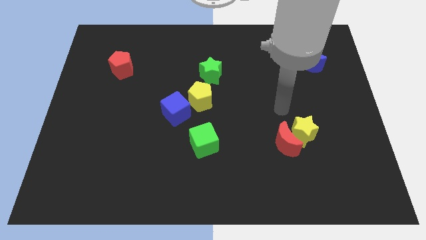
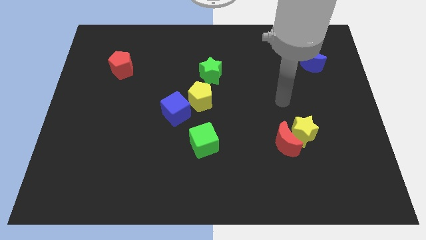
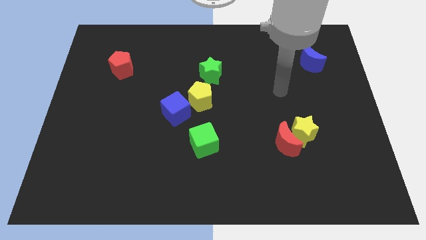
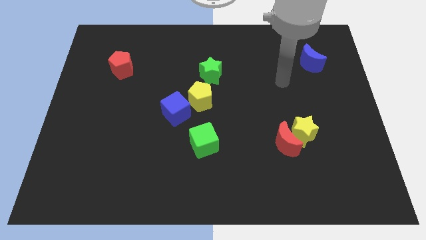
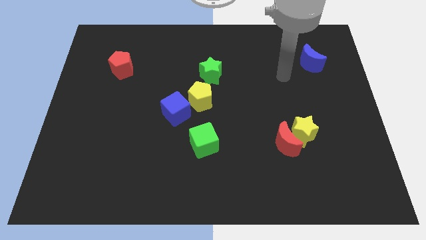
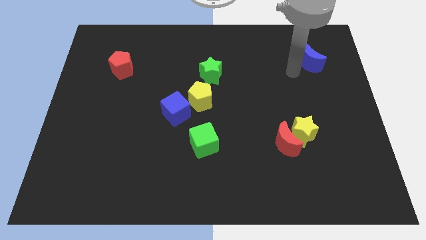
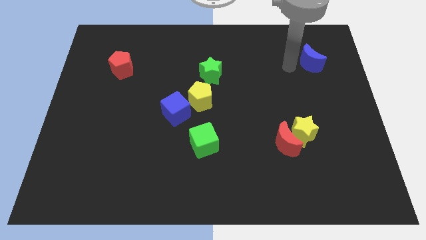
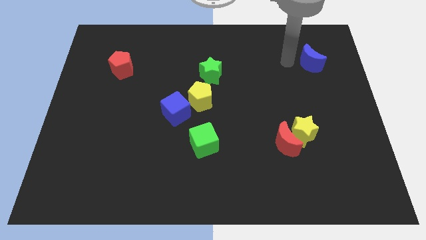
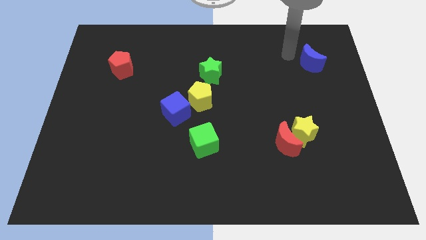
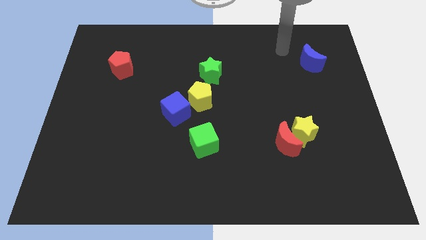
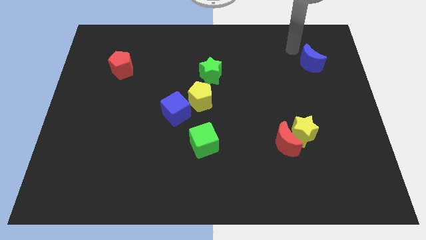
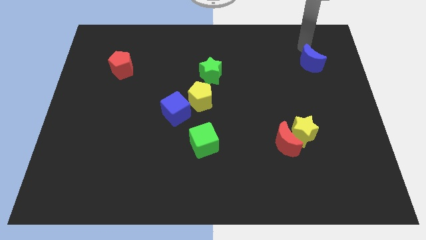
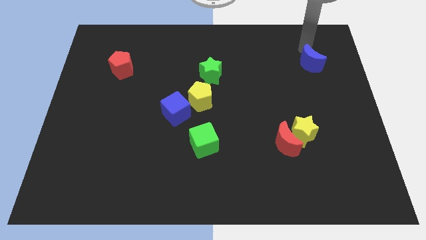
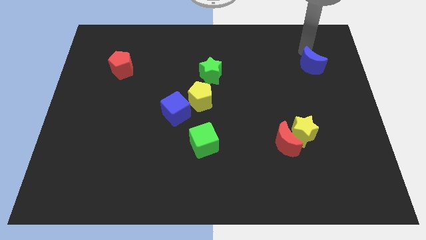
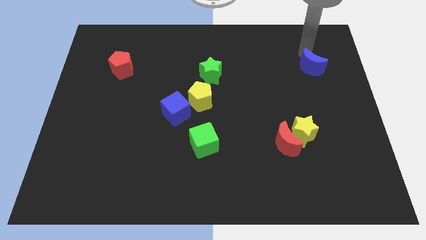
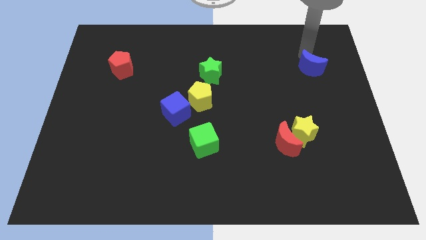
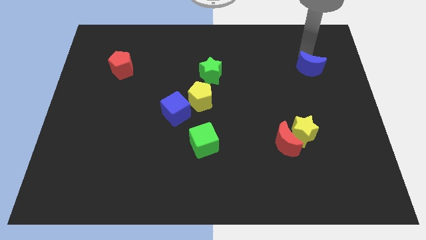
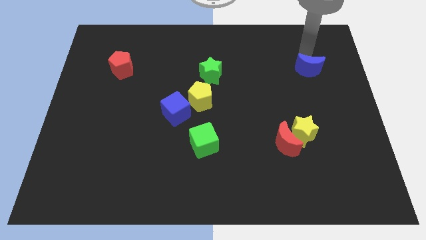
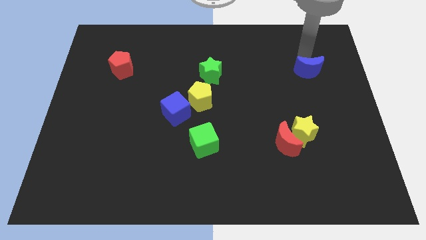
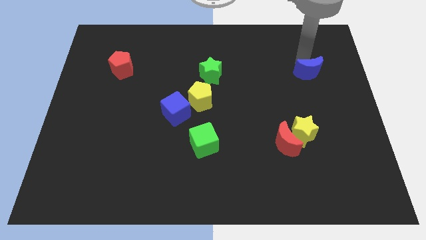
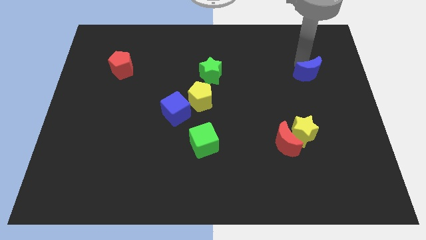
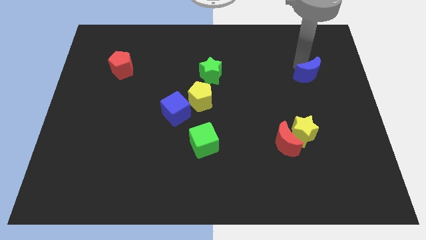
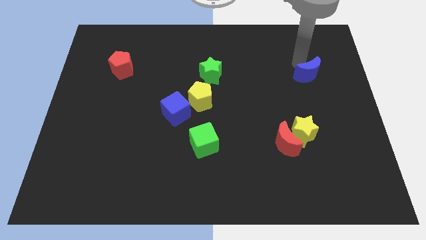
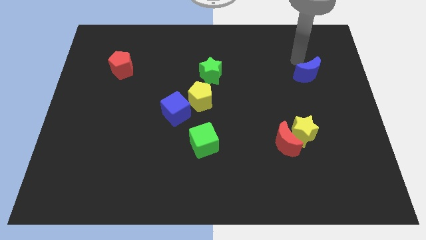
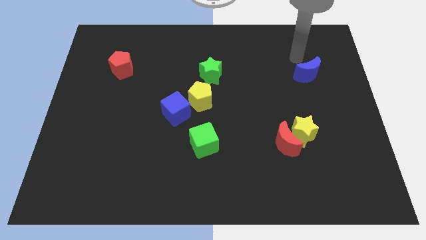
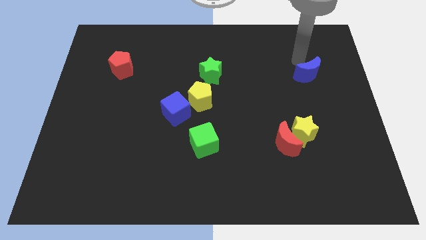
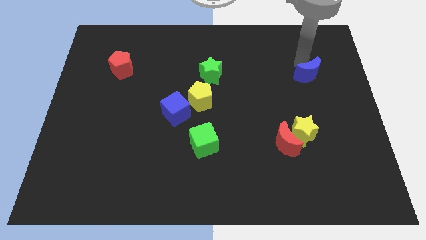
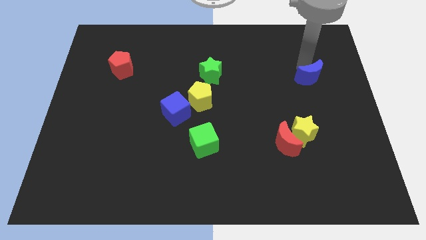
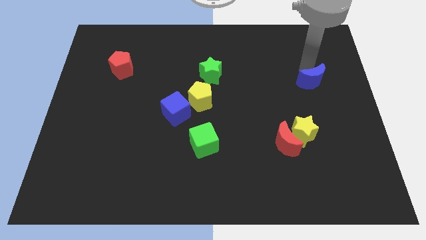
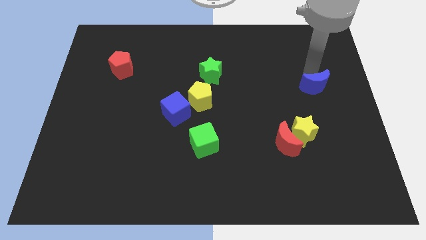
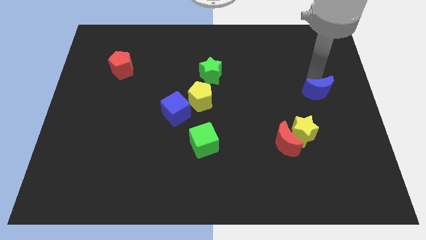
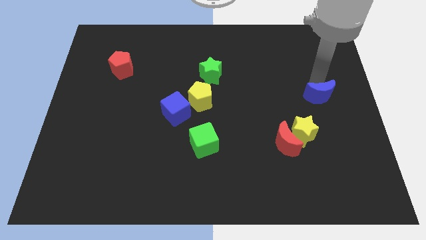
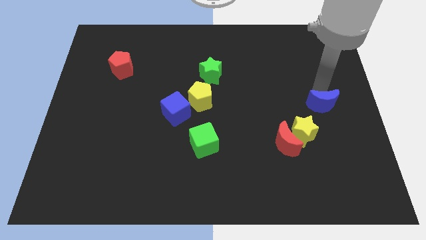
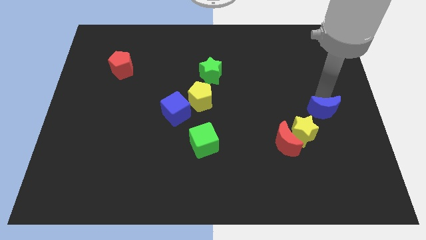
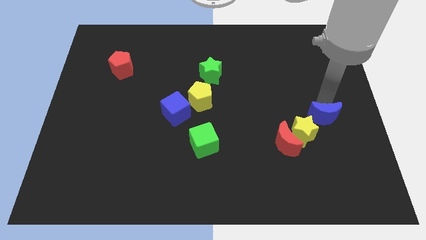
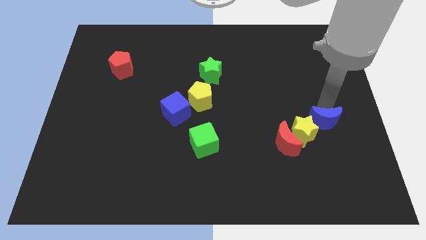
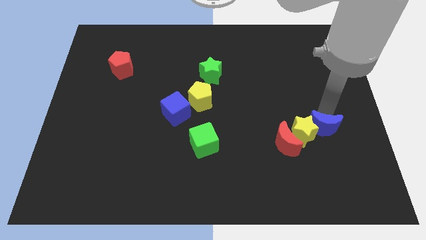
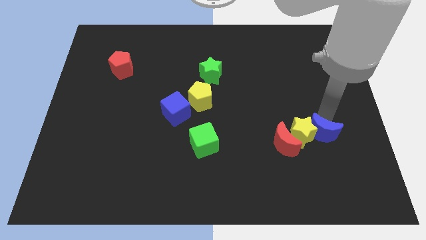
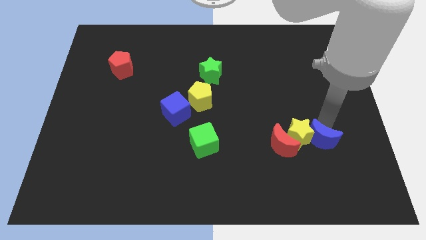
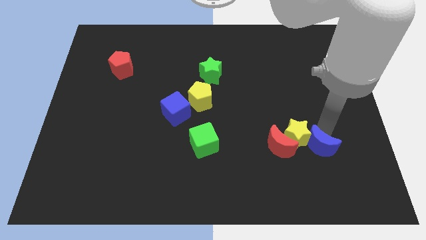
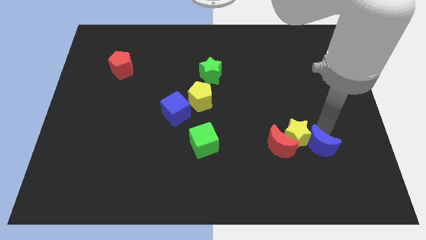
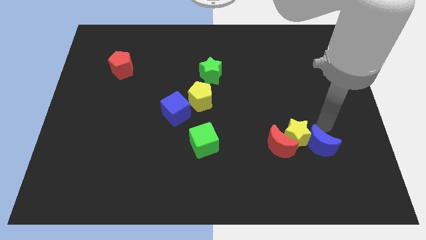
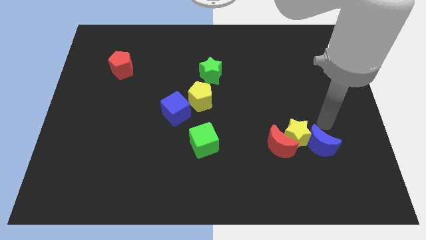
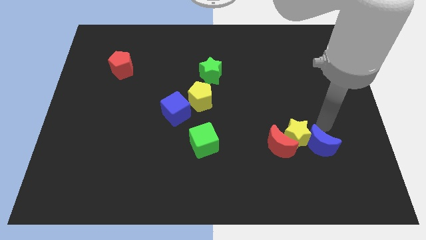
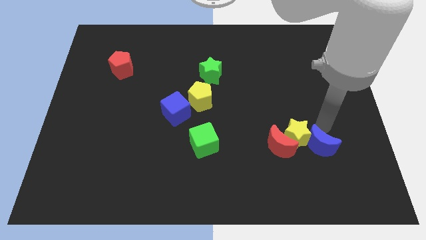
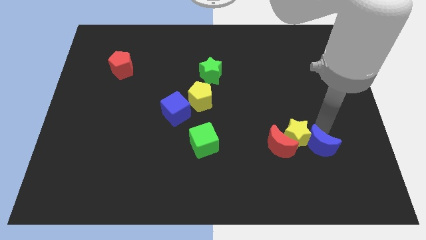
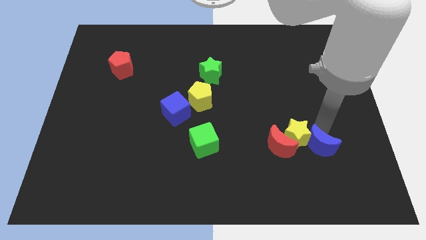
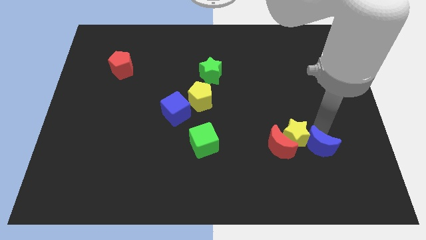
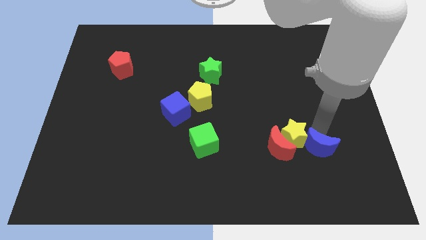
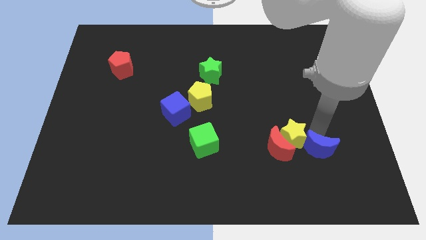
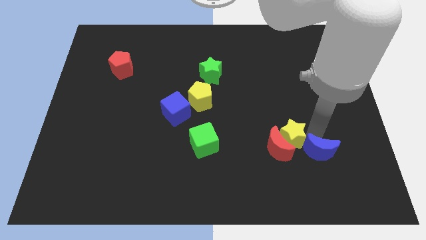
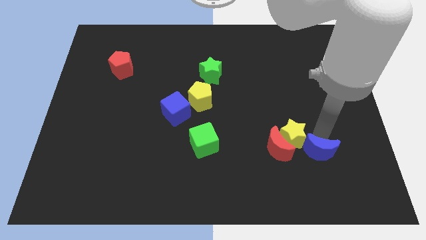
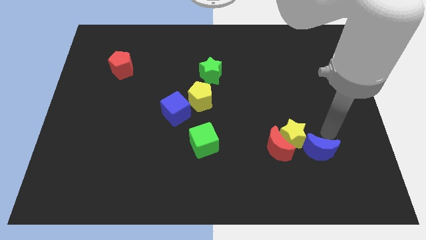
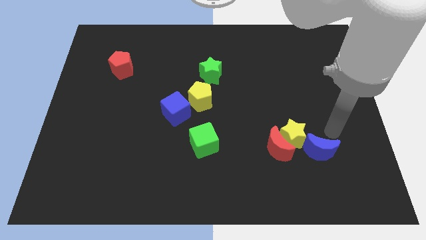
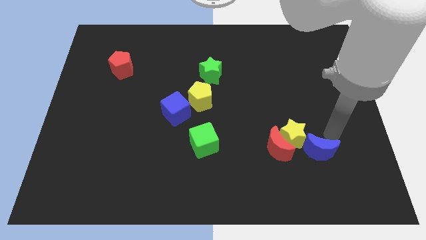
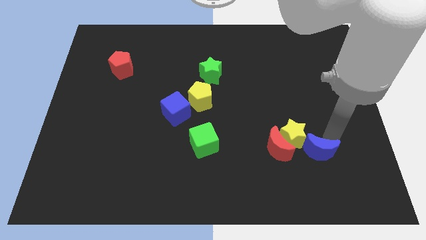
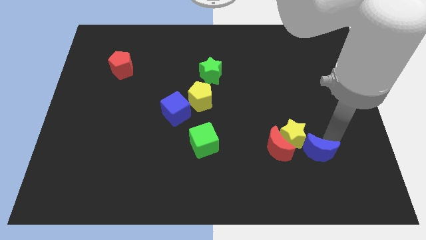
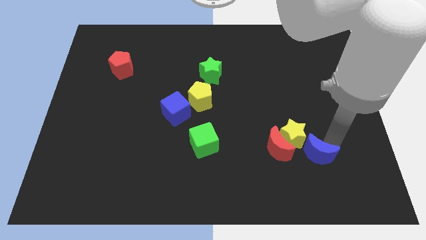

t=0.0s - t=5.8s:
put the blue moon to the bottom side of the yellow star
